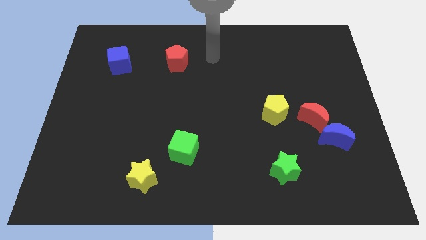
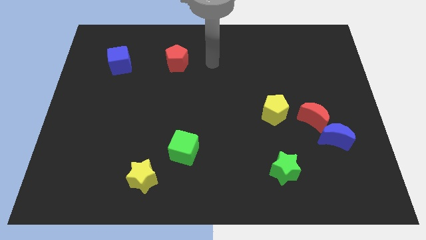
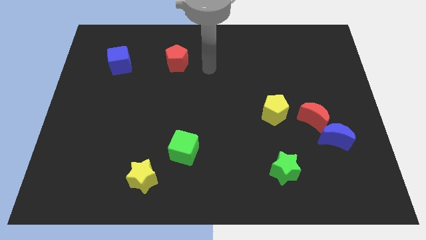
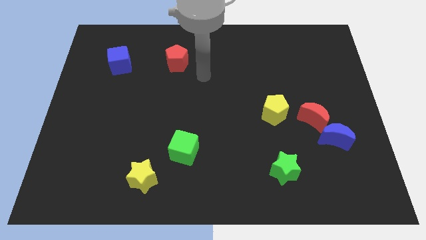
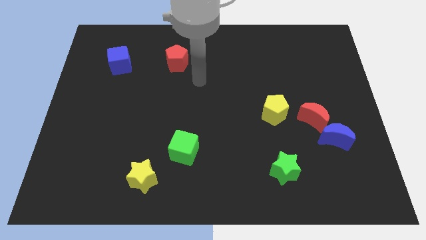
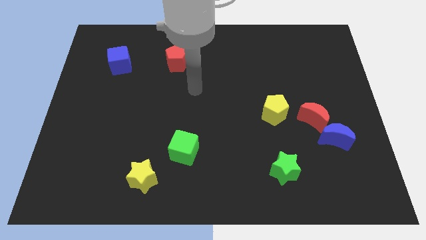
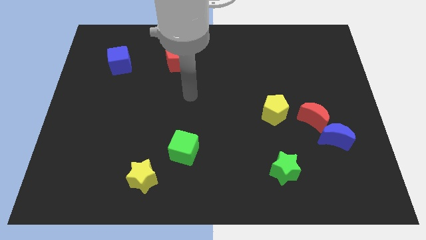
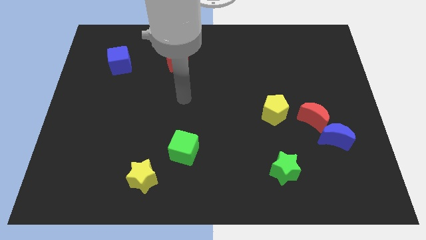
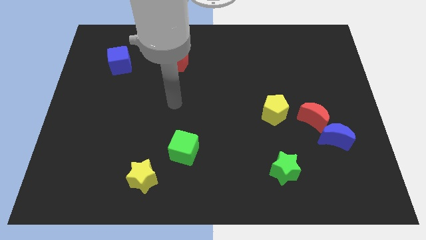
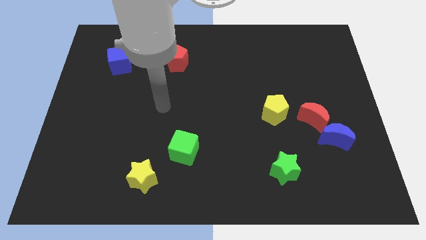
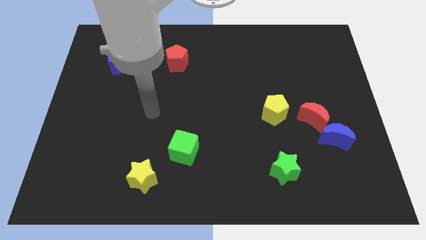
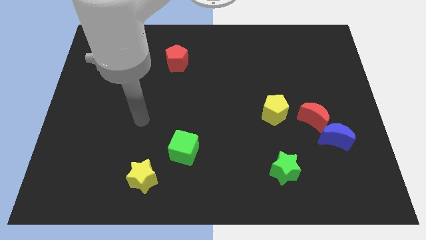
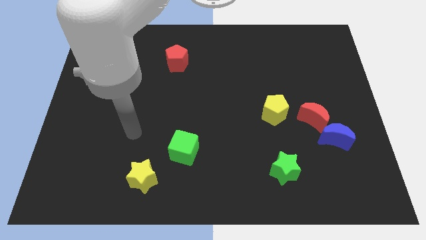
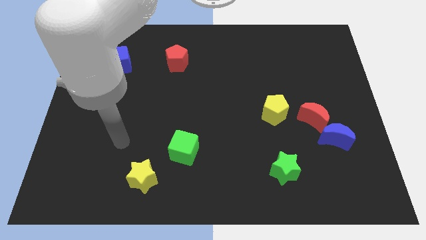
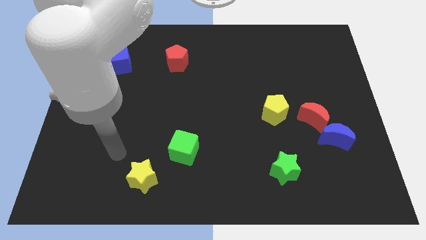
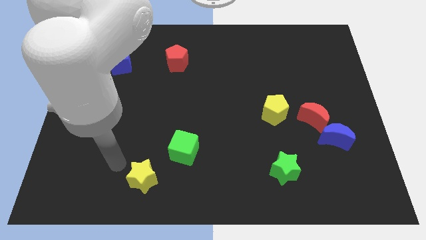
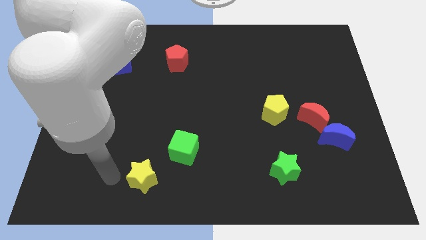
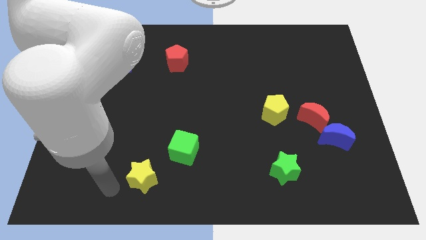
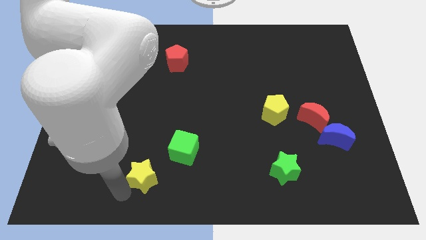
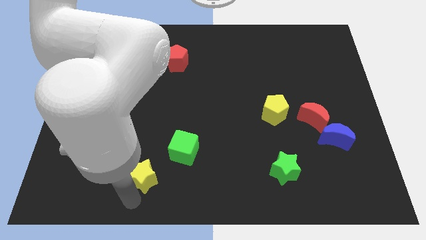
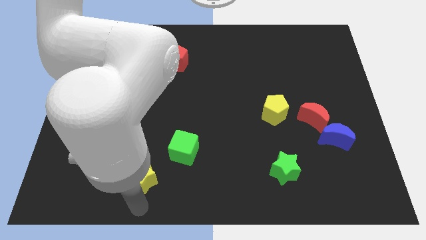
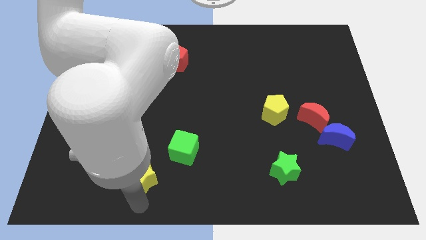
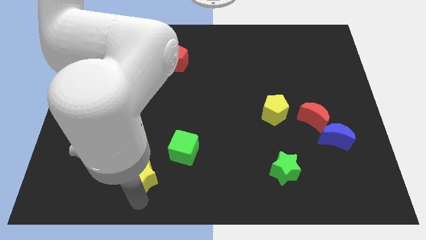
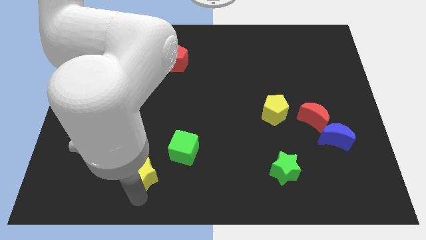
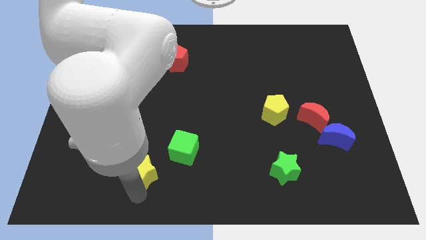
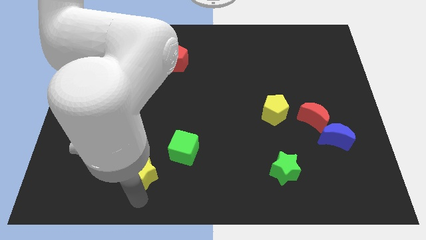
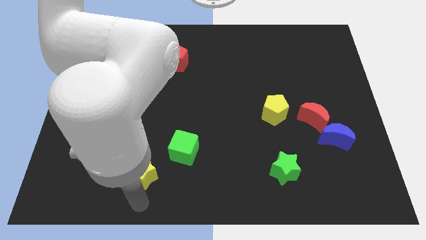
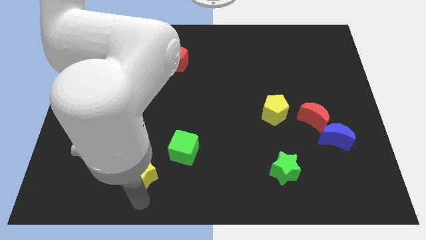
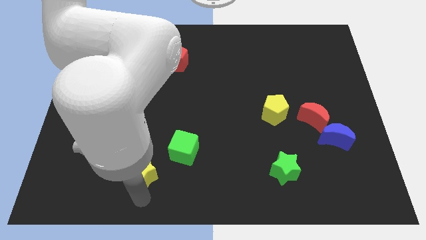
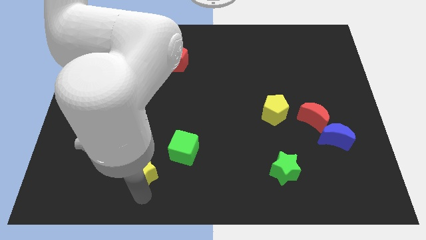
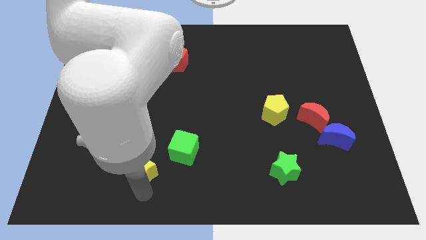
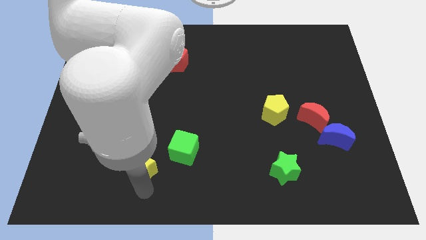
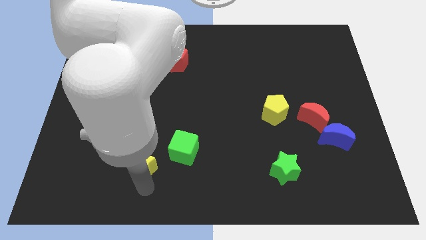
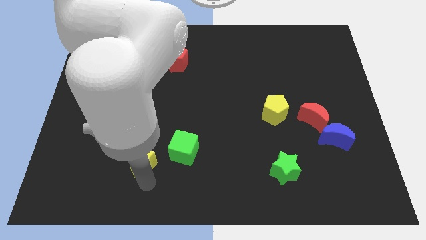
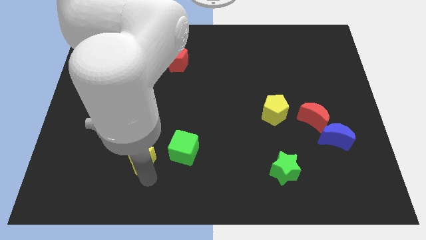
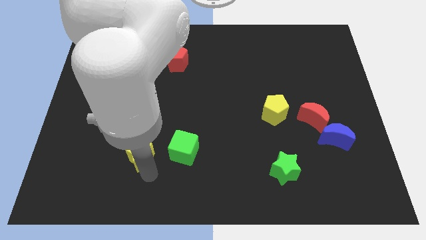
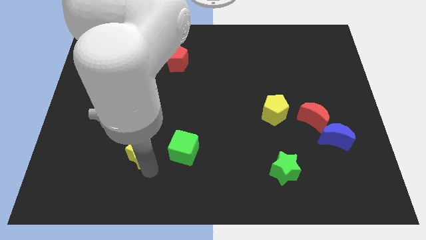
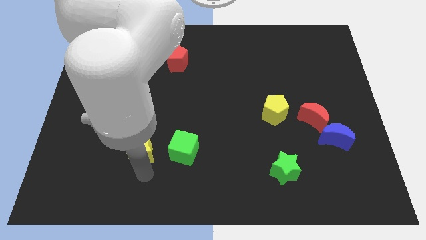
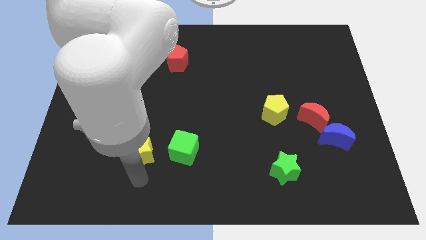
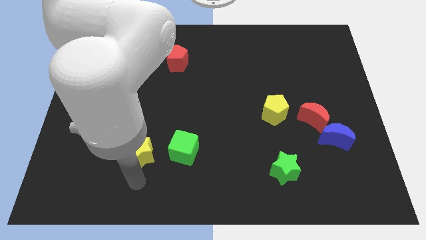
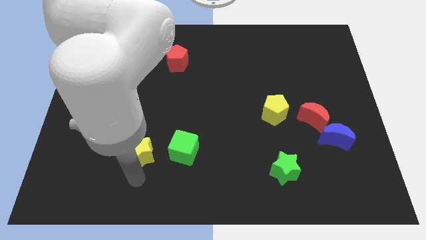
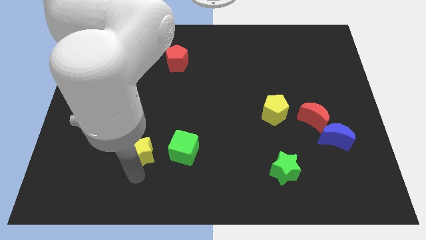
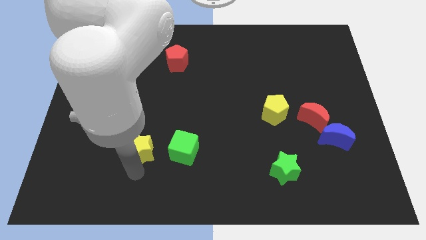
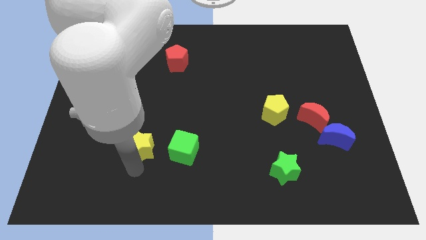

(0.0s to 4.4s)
push the yellow star a little upwards

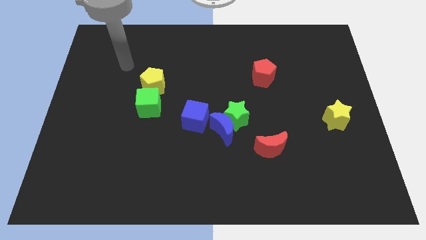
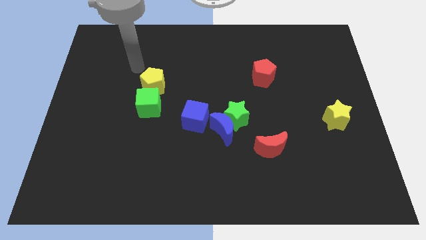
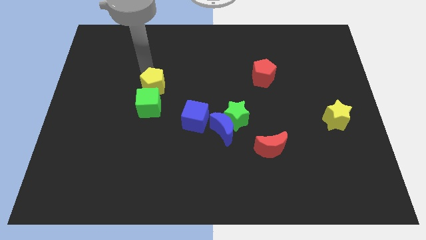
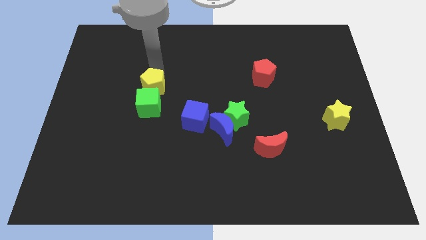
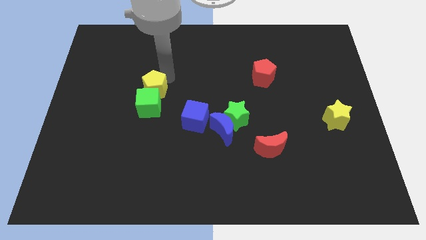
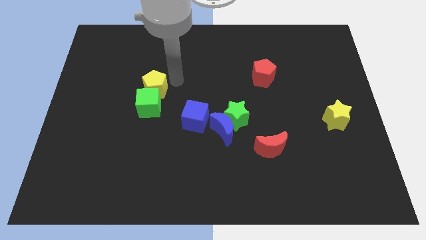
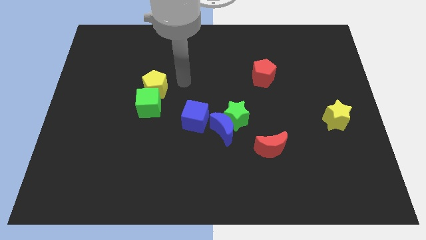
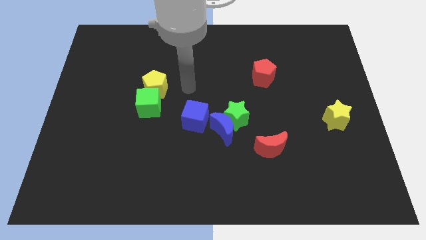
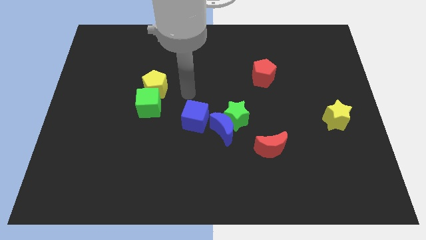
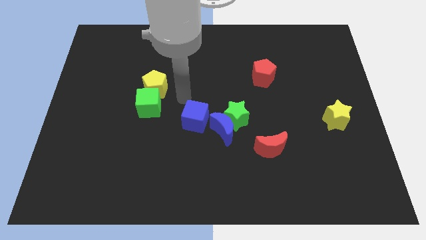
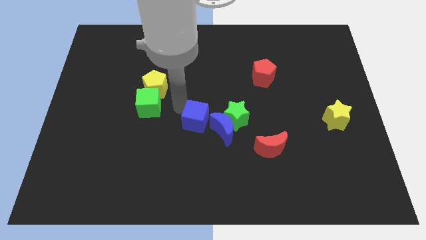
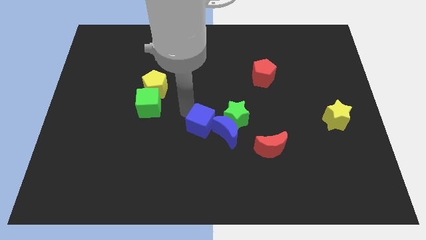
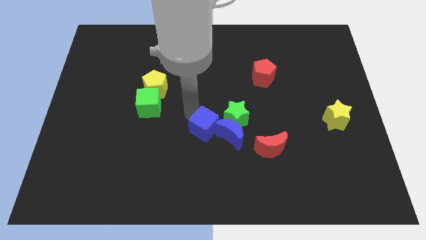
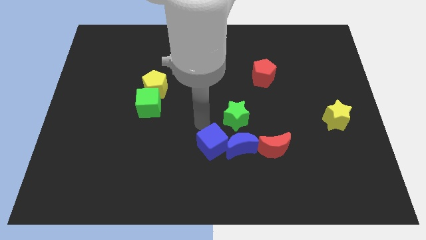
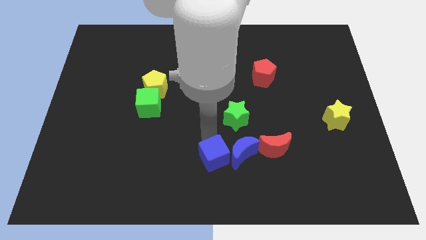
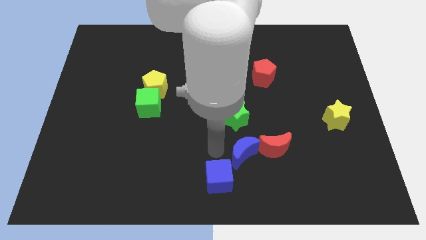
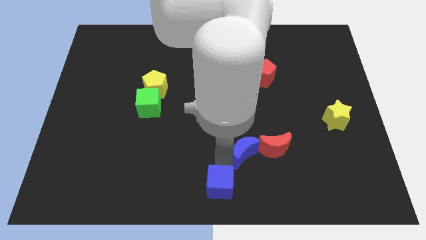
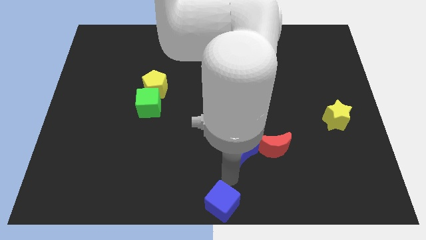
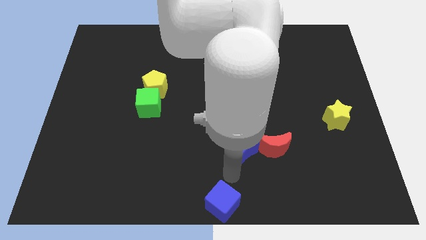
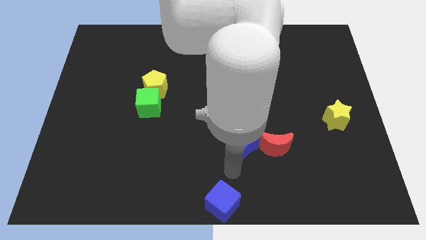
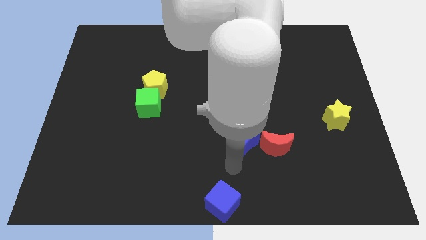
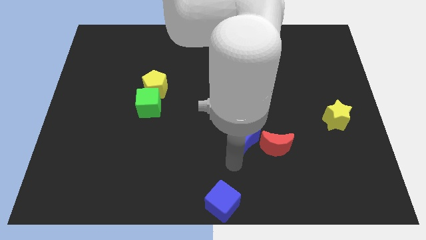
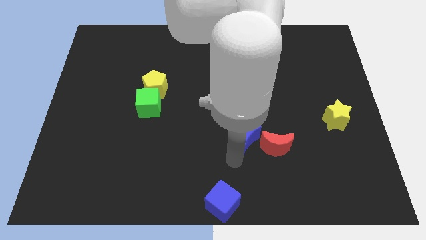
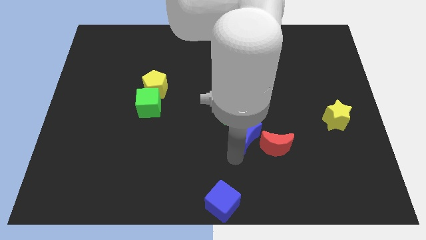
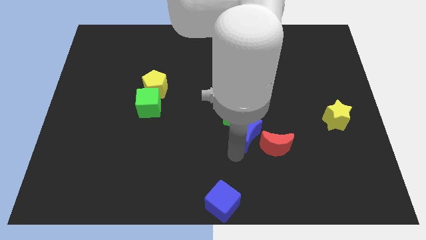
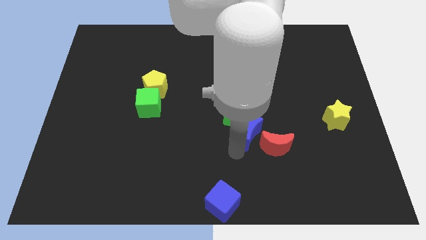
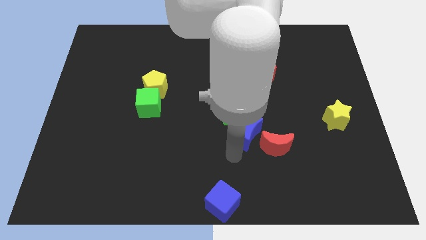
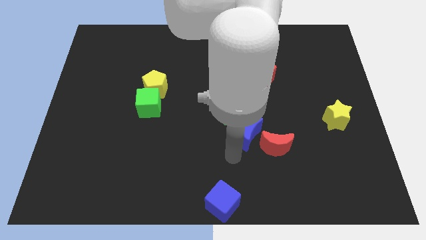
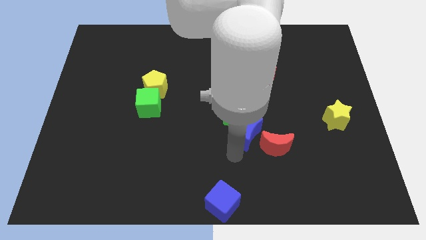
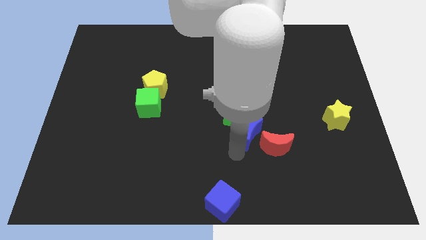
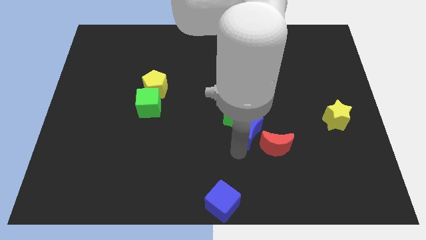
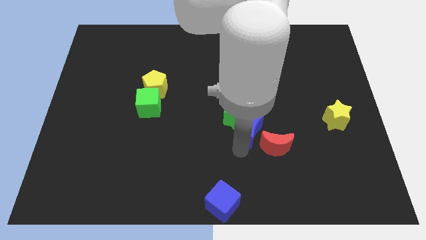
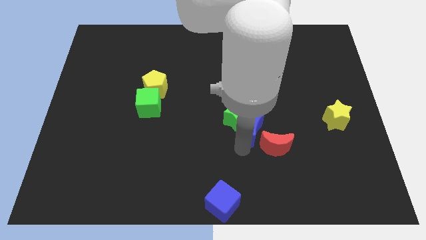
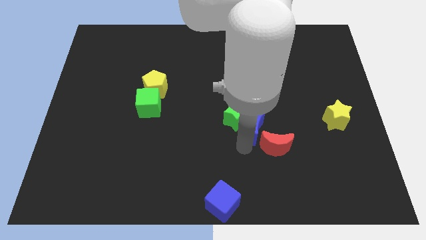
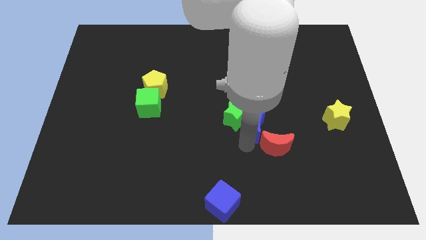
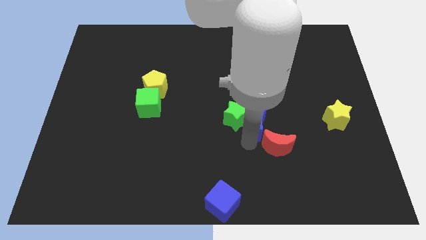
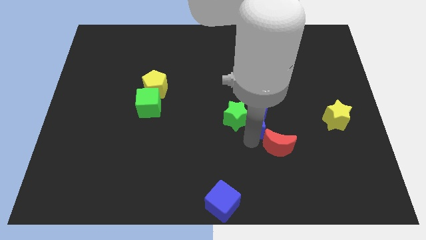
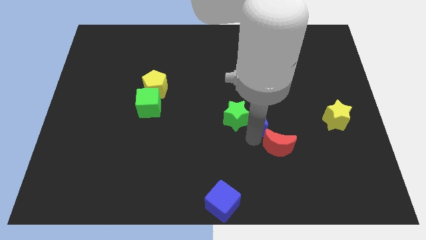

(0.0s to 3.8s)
slightly move the blue moon diagonally up and right
